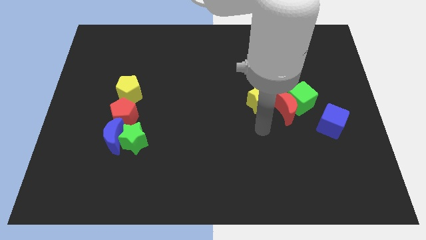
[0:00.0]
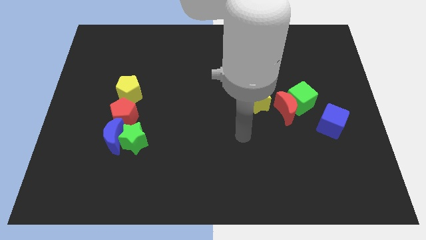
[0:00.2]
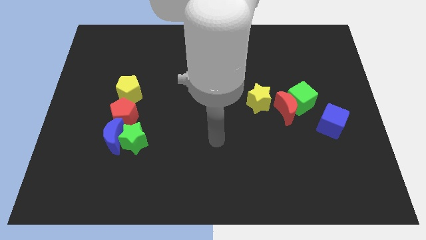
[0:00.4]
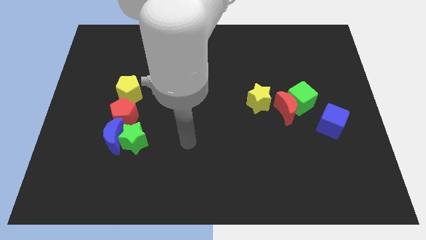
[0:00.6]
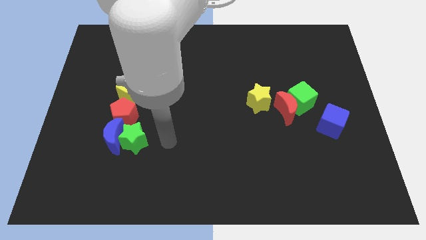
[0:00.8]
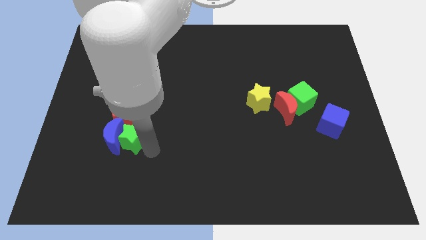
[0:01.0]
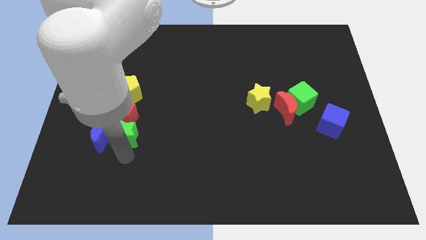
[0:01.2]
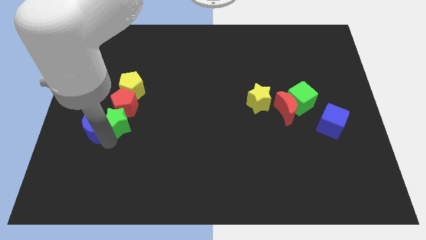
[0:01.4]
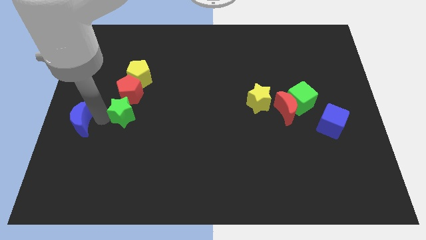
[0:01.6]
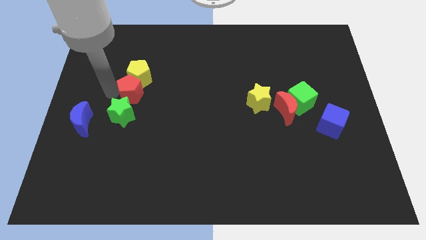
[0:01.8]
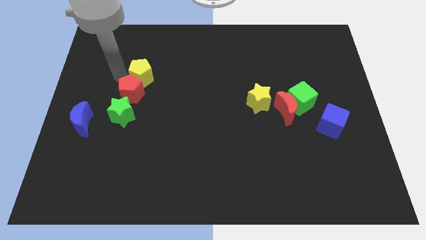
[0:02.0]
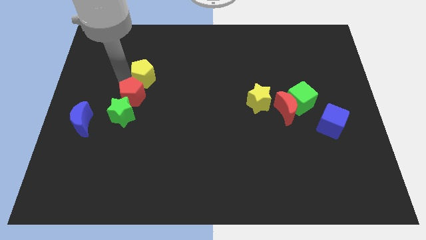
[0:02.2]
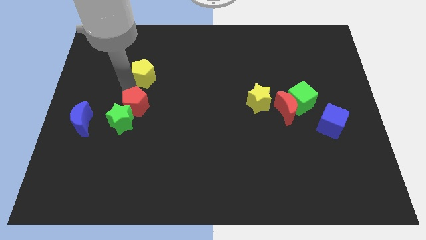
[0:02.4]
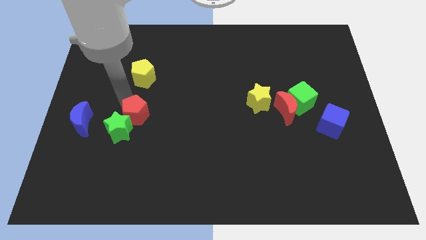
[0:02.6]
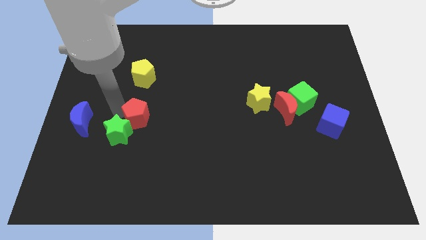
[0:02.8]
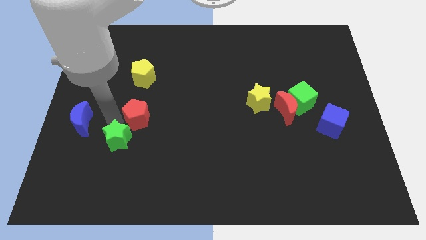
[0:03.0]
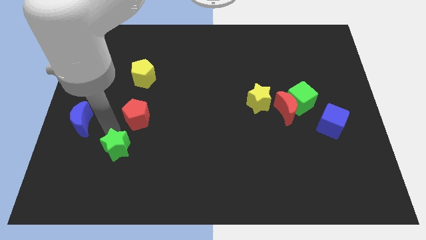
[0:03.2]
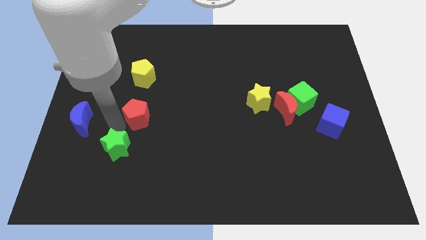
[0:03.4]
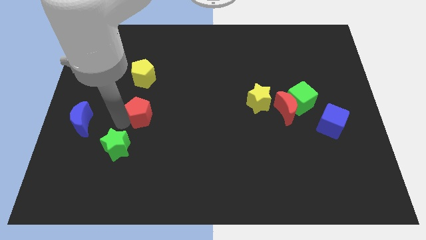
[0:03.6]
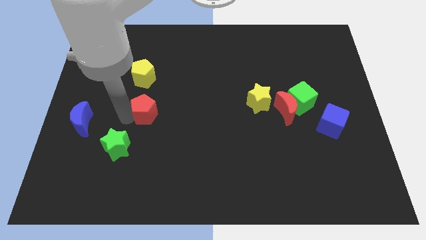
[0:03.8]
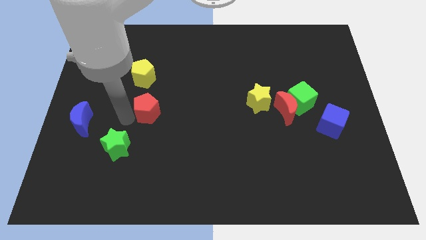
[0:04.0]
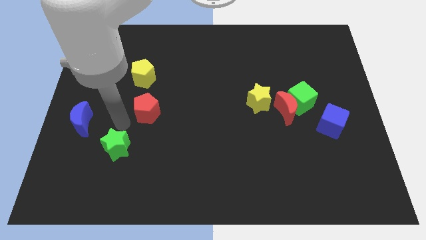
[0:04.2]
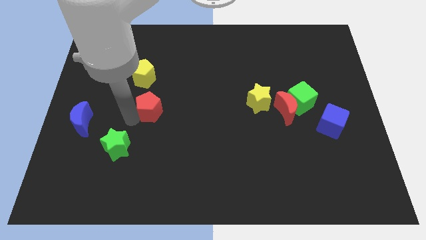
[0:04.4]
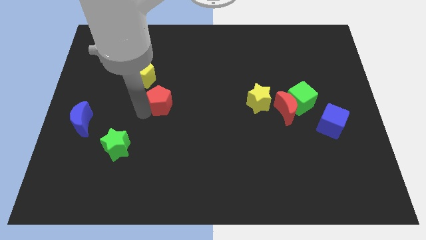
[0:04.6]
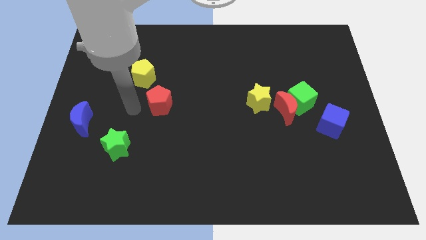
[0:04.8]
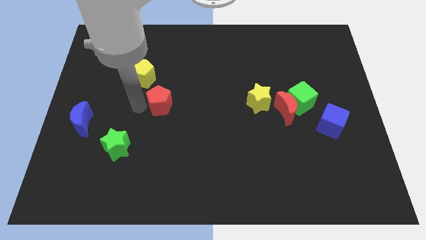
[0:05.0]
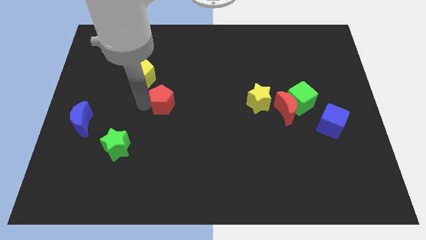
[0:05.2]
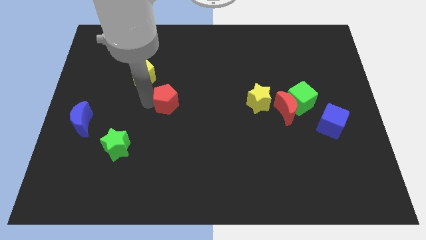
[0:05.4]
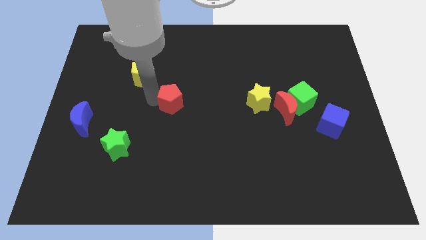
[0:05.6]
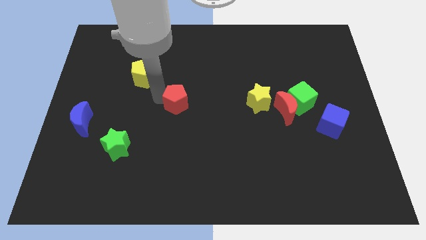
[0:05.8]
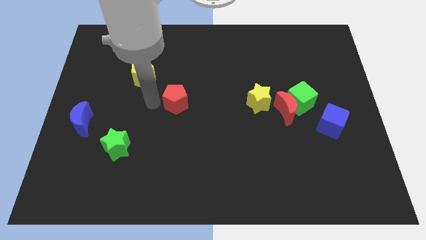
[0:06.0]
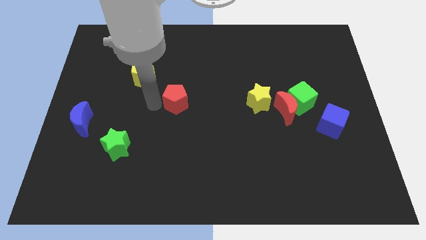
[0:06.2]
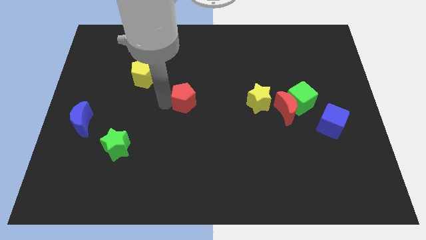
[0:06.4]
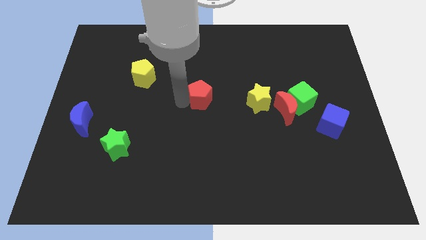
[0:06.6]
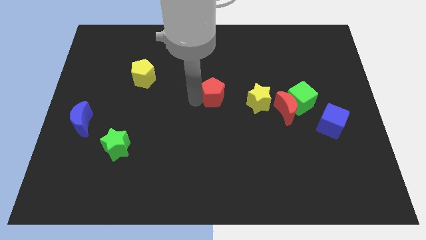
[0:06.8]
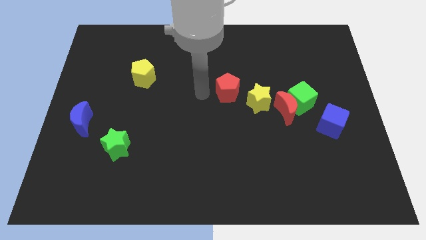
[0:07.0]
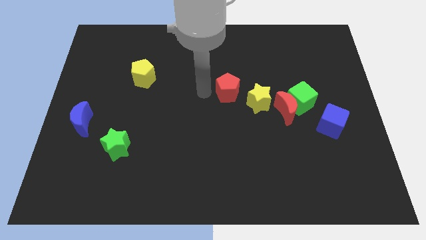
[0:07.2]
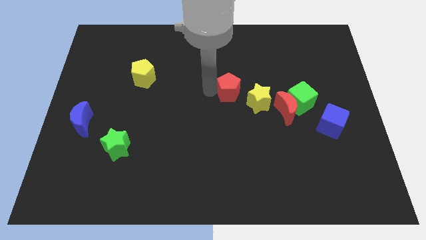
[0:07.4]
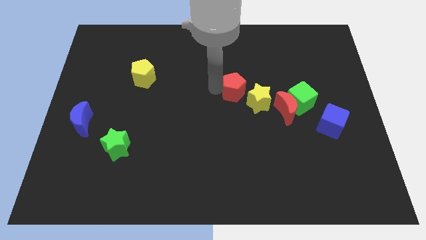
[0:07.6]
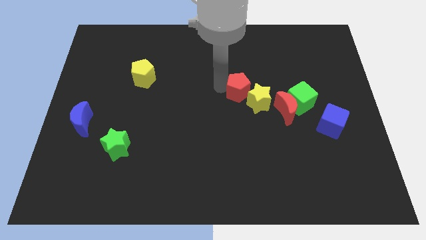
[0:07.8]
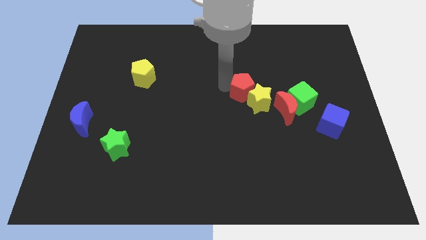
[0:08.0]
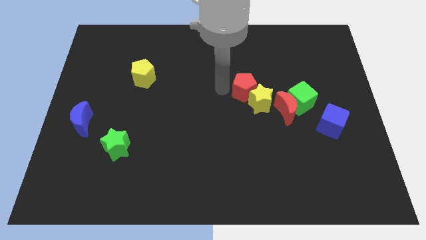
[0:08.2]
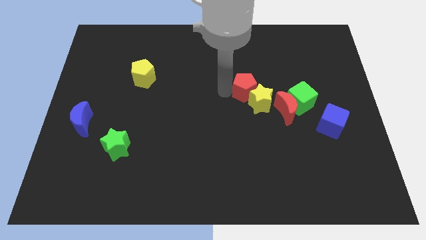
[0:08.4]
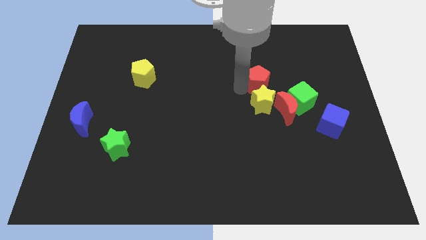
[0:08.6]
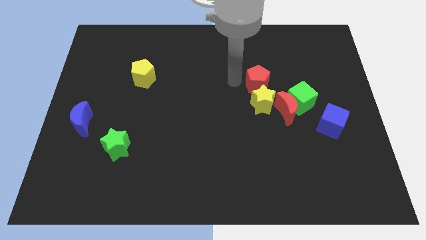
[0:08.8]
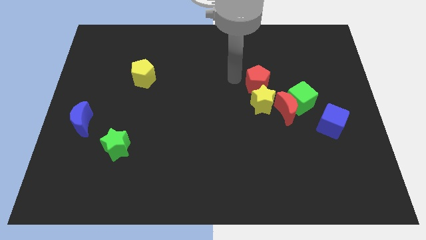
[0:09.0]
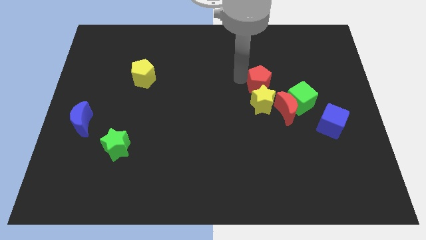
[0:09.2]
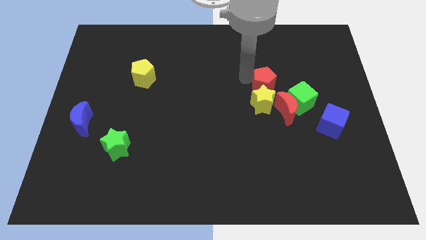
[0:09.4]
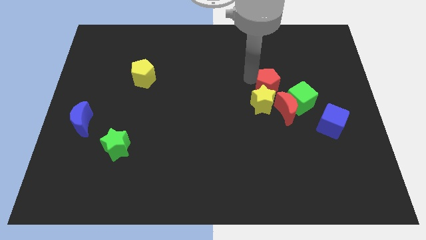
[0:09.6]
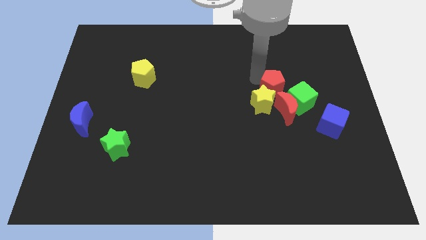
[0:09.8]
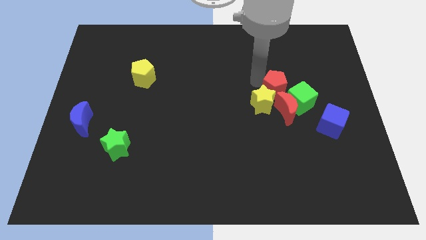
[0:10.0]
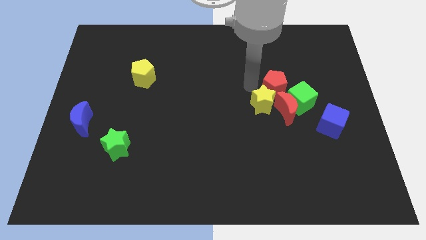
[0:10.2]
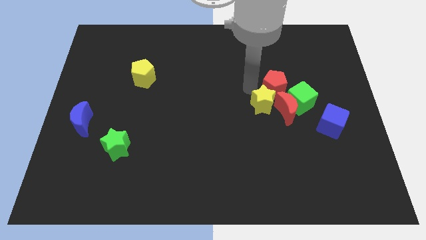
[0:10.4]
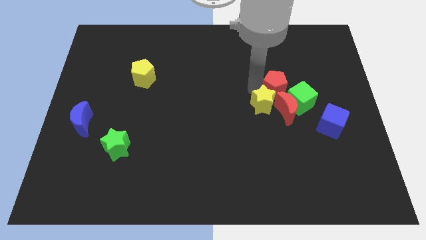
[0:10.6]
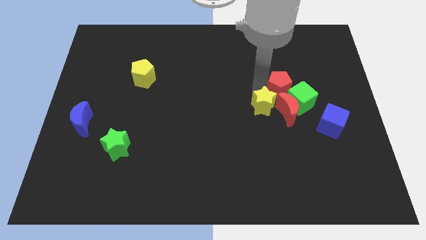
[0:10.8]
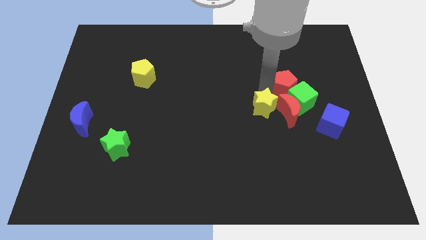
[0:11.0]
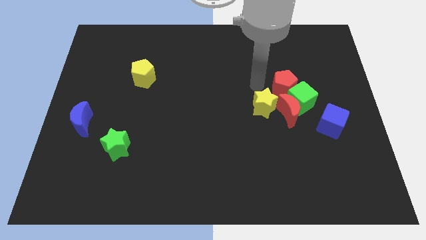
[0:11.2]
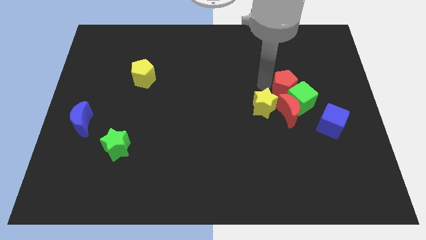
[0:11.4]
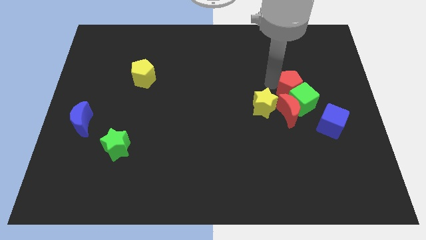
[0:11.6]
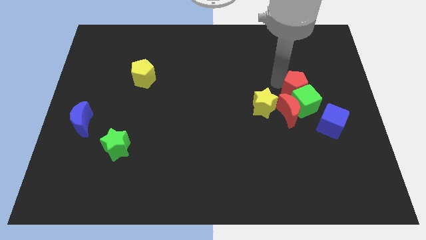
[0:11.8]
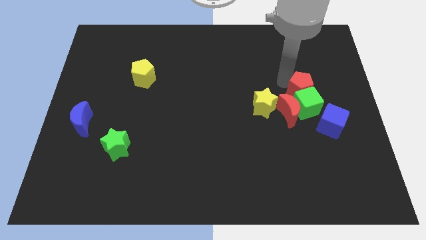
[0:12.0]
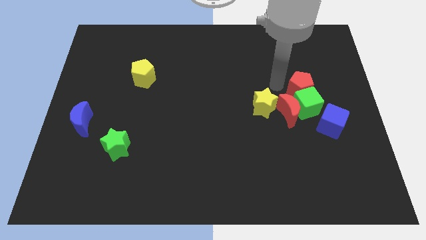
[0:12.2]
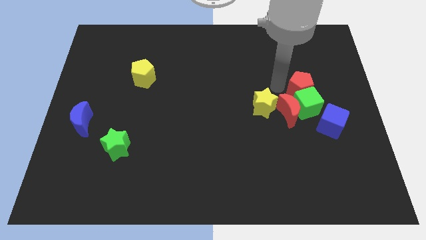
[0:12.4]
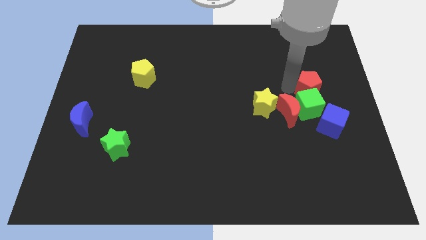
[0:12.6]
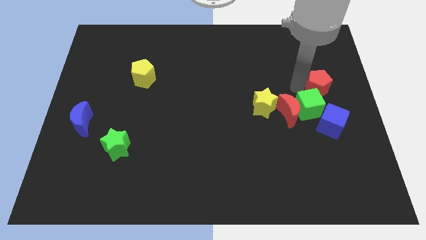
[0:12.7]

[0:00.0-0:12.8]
push the red pentagon to the right side
